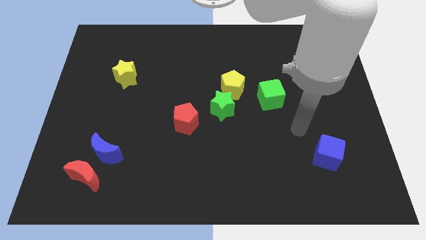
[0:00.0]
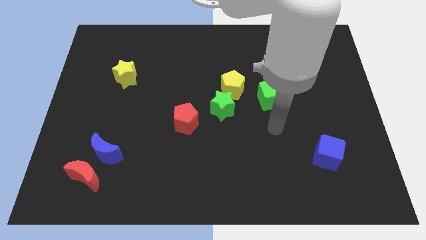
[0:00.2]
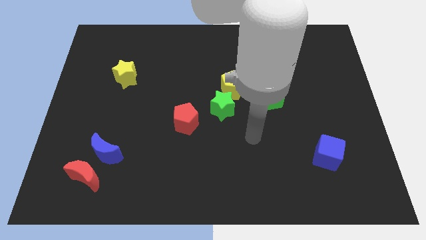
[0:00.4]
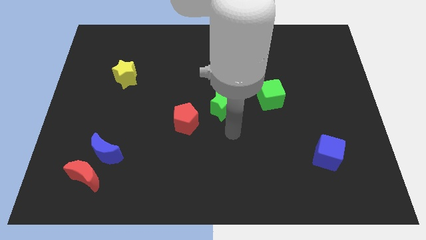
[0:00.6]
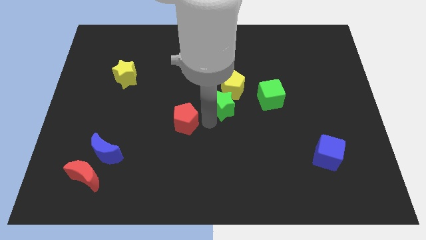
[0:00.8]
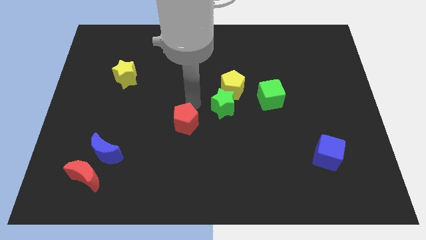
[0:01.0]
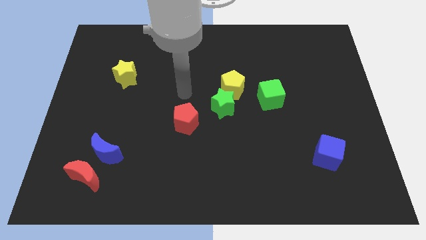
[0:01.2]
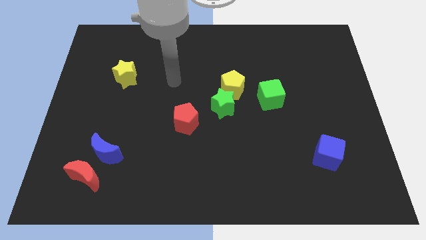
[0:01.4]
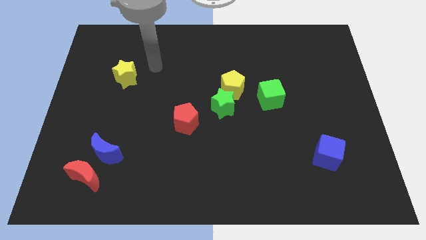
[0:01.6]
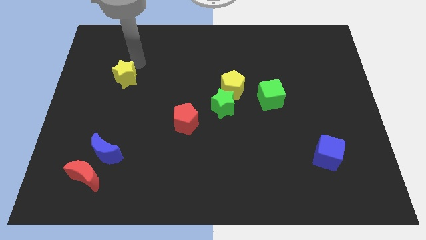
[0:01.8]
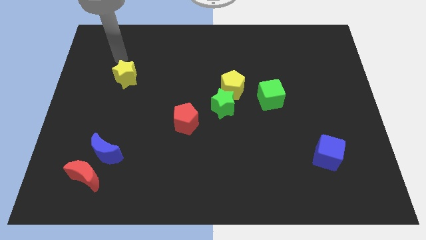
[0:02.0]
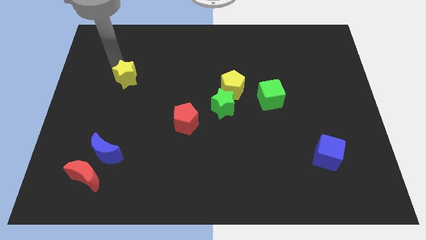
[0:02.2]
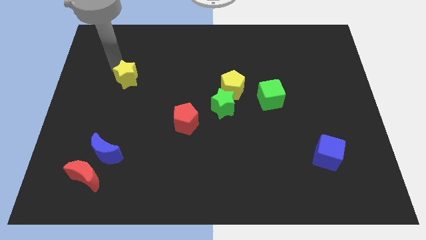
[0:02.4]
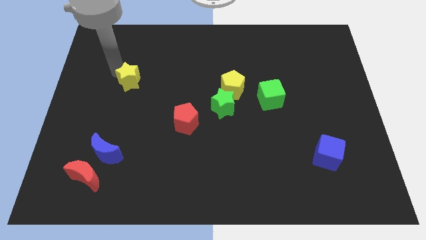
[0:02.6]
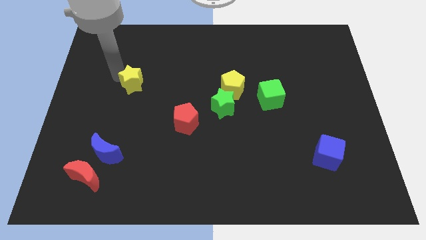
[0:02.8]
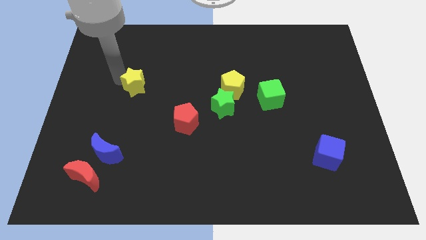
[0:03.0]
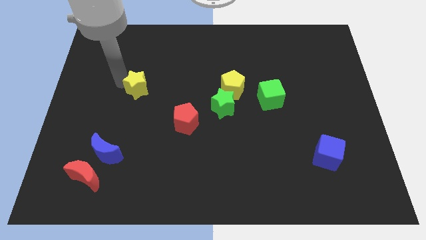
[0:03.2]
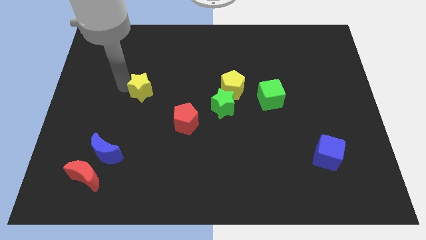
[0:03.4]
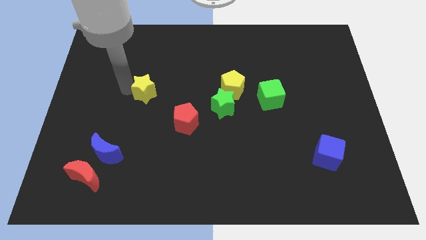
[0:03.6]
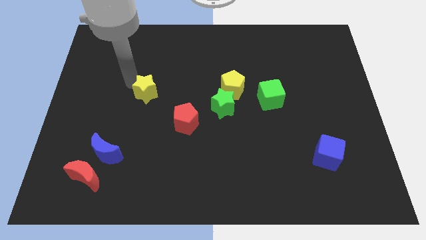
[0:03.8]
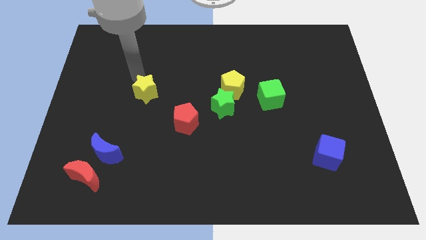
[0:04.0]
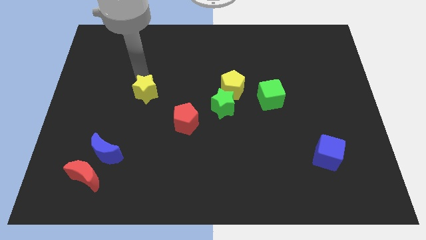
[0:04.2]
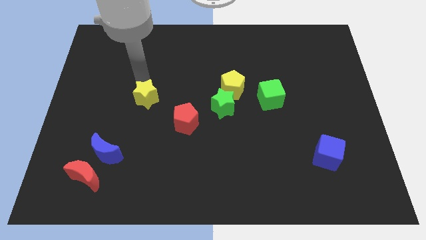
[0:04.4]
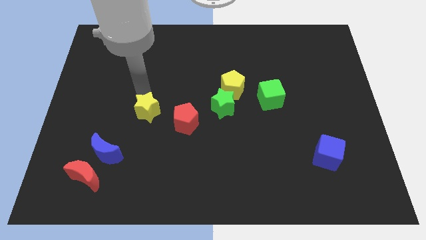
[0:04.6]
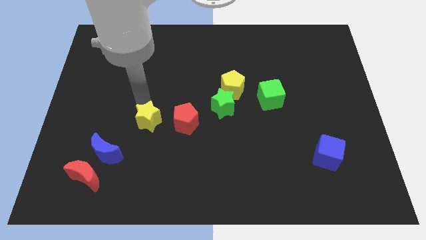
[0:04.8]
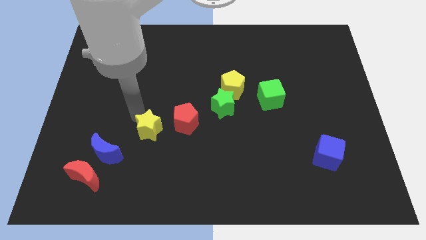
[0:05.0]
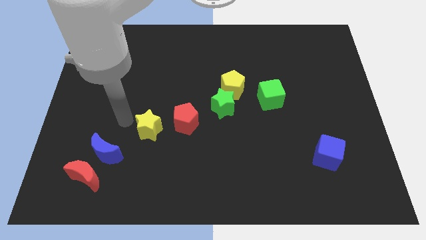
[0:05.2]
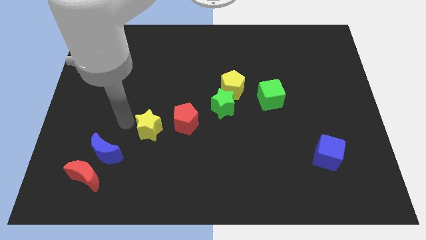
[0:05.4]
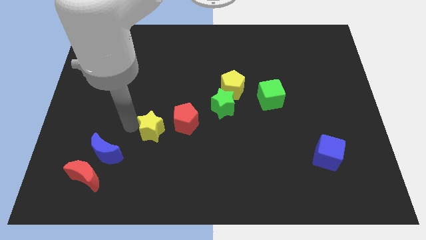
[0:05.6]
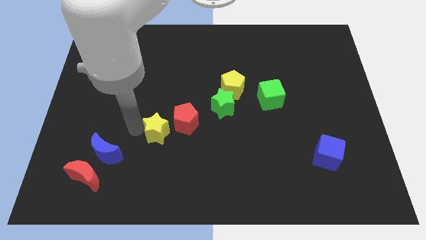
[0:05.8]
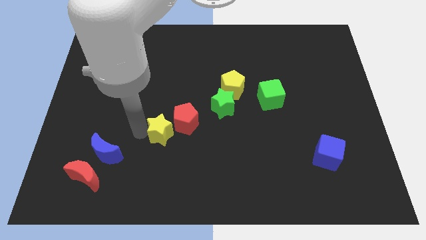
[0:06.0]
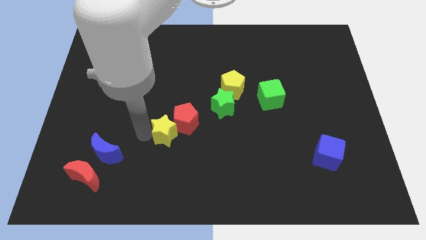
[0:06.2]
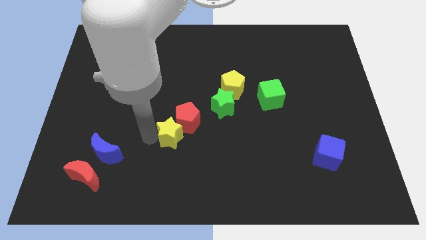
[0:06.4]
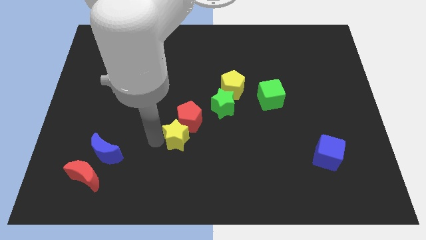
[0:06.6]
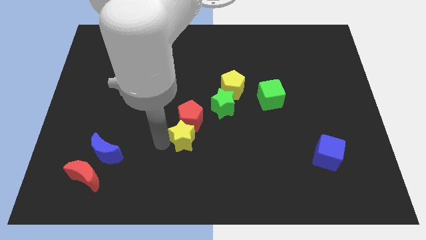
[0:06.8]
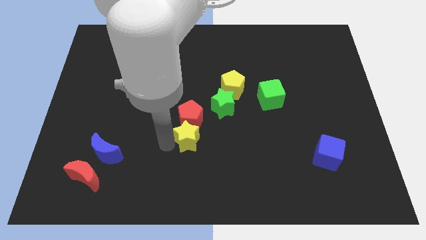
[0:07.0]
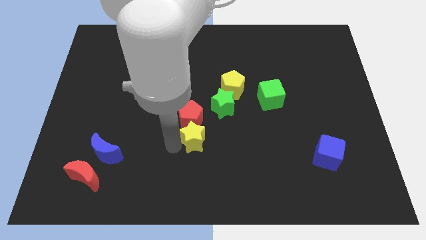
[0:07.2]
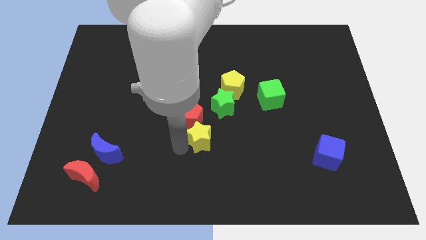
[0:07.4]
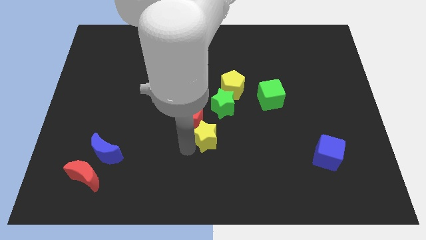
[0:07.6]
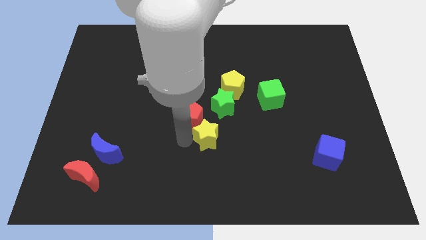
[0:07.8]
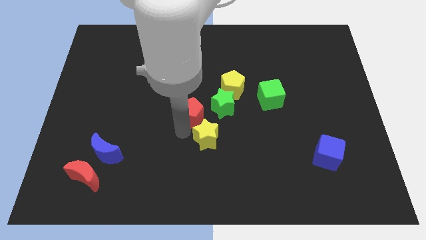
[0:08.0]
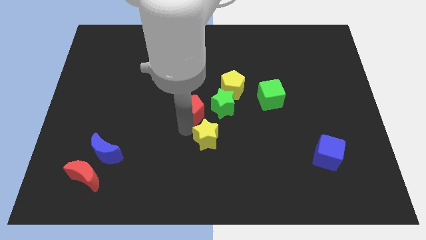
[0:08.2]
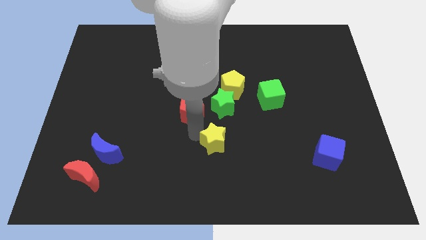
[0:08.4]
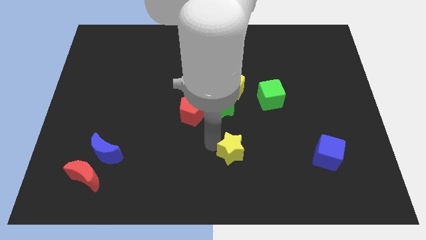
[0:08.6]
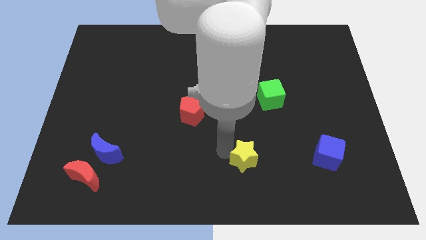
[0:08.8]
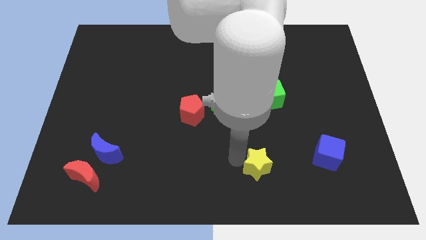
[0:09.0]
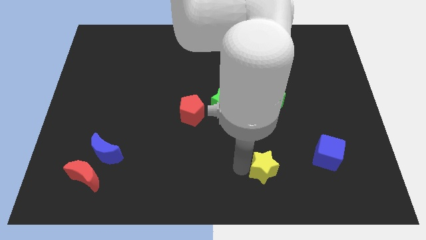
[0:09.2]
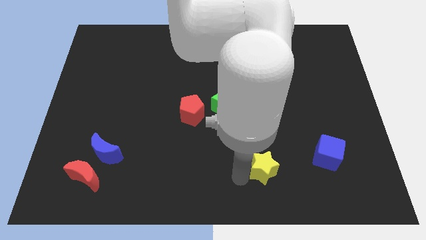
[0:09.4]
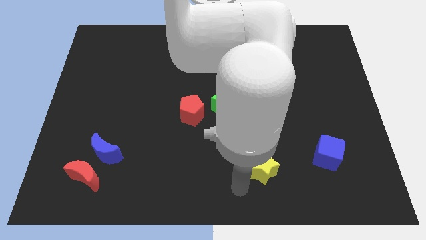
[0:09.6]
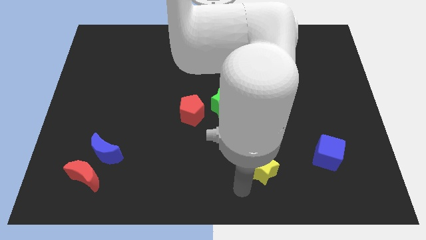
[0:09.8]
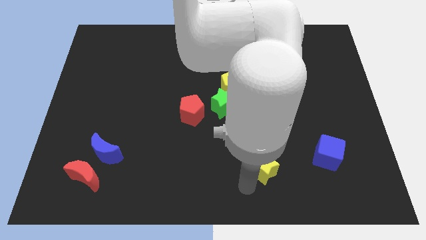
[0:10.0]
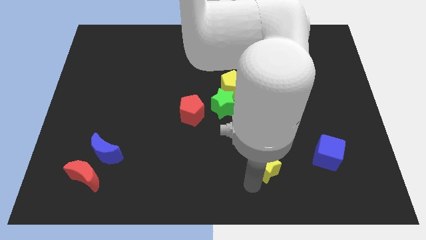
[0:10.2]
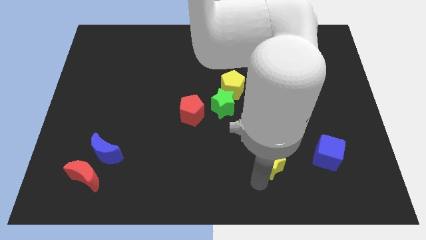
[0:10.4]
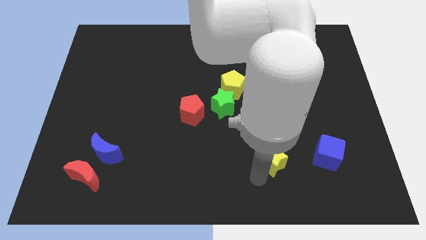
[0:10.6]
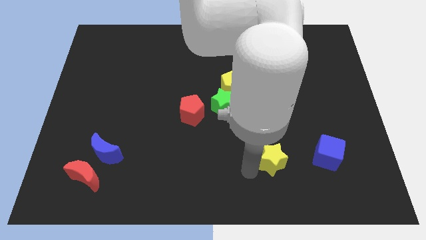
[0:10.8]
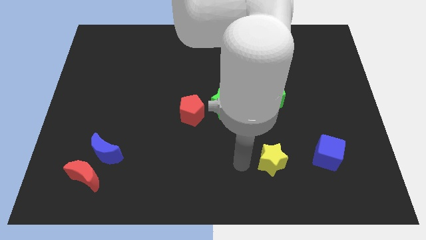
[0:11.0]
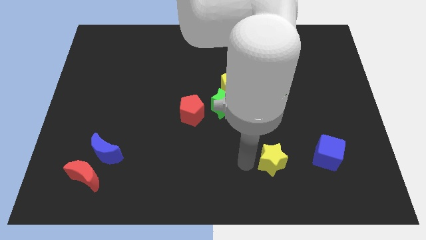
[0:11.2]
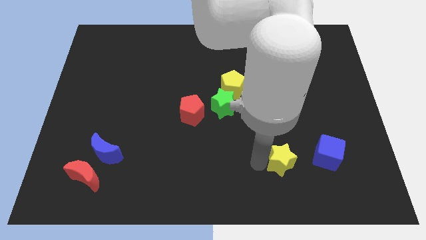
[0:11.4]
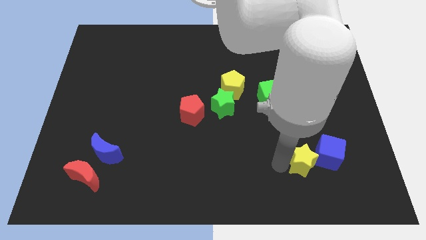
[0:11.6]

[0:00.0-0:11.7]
put the yellow star close to the blue cube

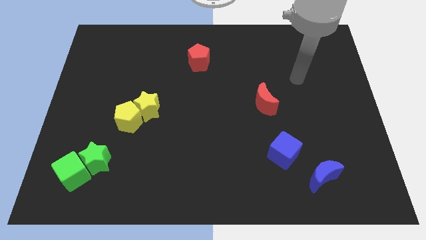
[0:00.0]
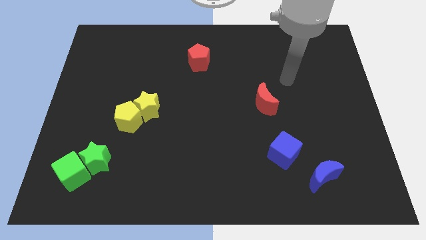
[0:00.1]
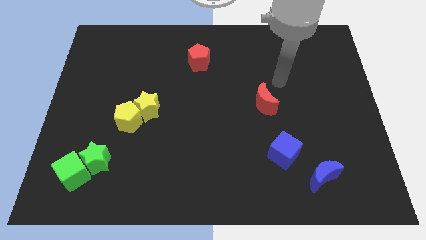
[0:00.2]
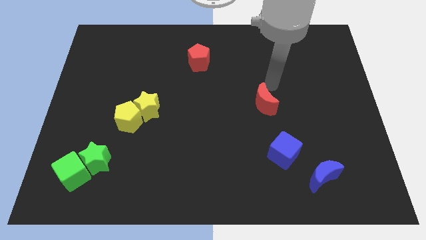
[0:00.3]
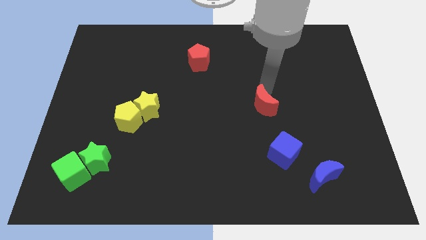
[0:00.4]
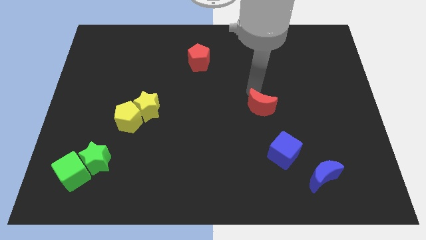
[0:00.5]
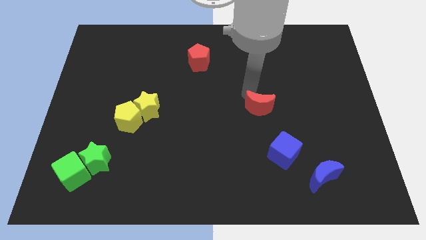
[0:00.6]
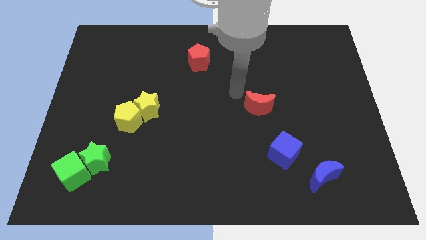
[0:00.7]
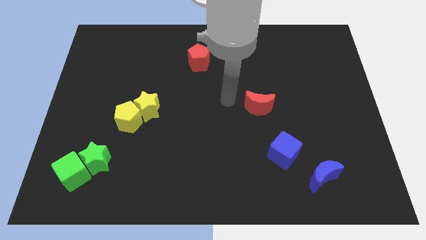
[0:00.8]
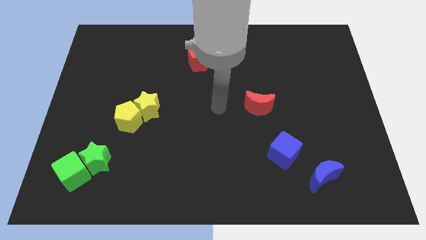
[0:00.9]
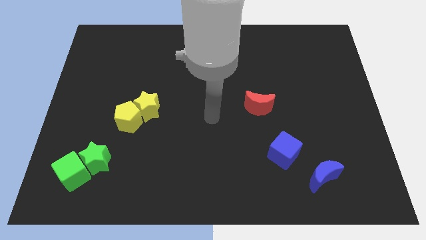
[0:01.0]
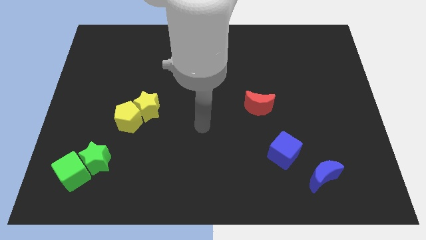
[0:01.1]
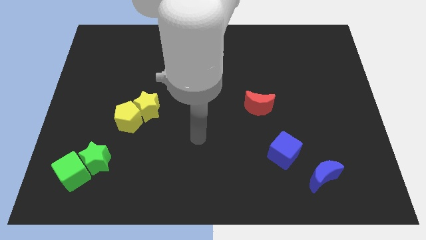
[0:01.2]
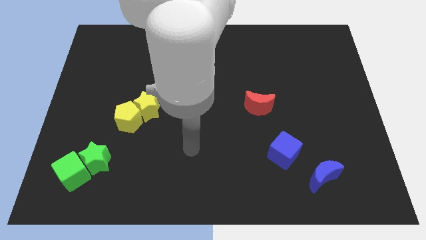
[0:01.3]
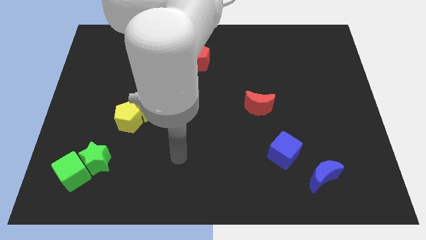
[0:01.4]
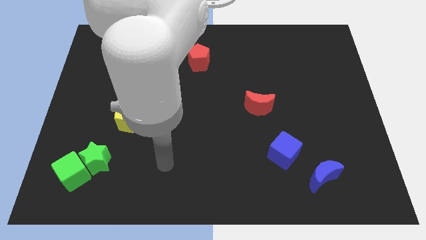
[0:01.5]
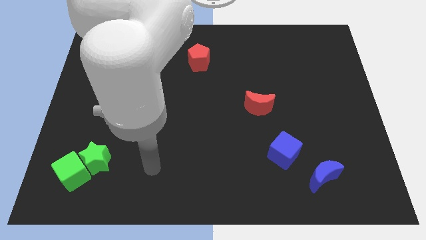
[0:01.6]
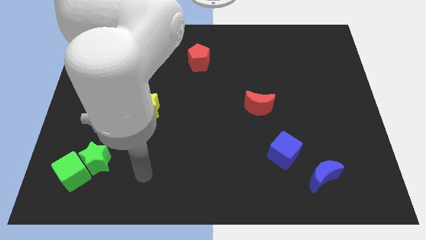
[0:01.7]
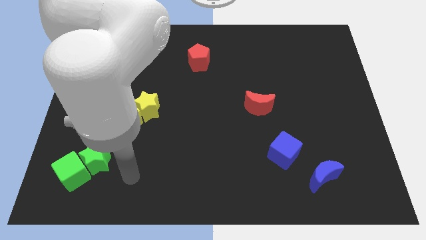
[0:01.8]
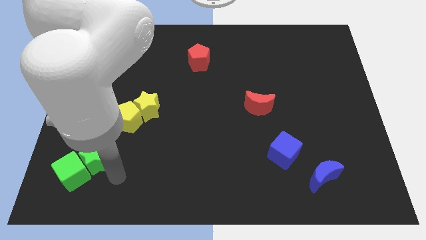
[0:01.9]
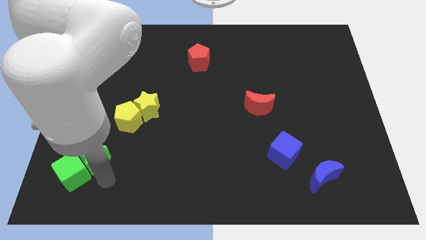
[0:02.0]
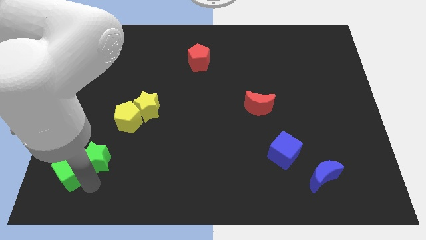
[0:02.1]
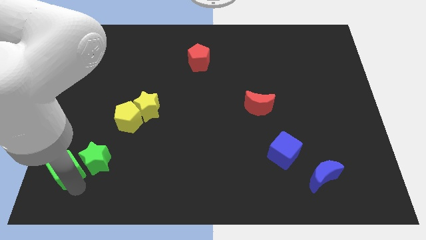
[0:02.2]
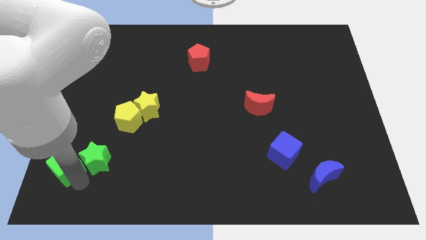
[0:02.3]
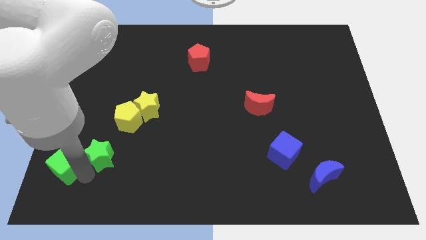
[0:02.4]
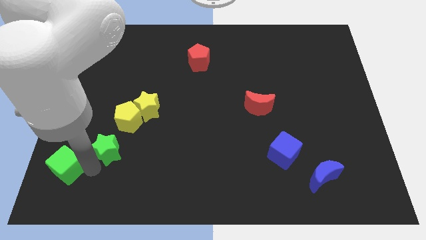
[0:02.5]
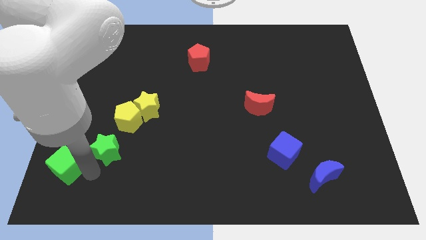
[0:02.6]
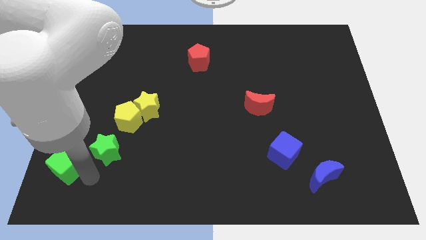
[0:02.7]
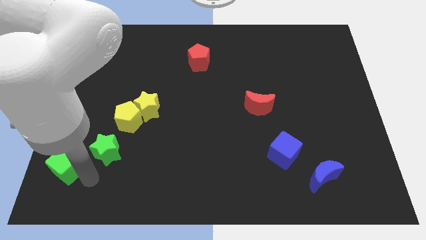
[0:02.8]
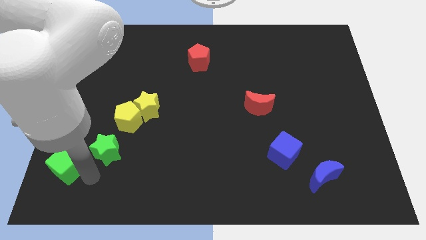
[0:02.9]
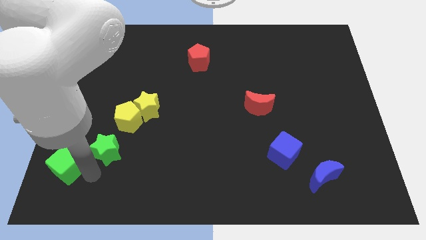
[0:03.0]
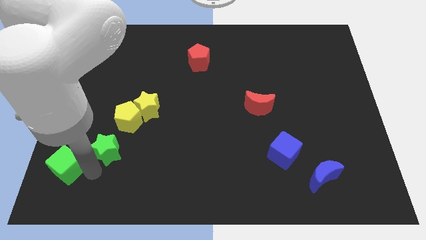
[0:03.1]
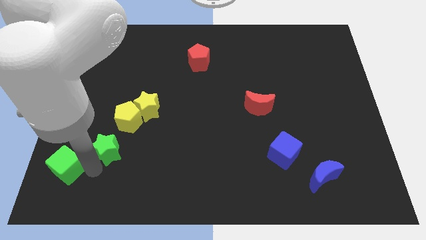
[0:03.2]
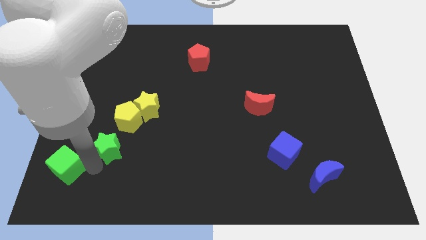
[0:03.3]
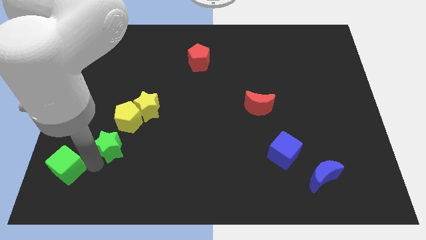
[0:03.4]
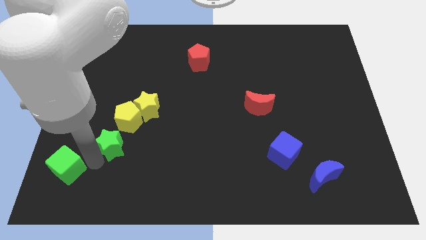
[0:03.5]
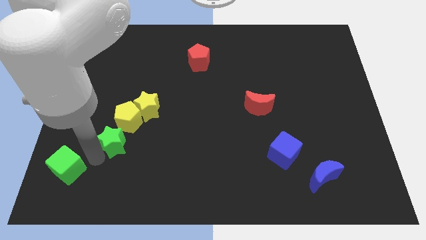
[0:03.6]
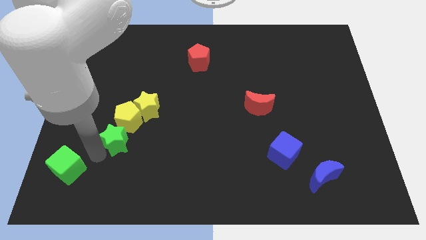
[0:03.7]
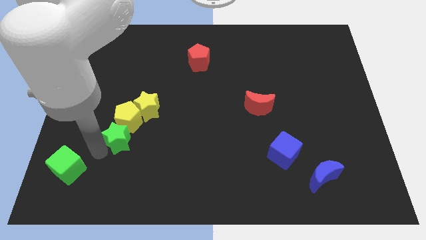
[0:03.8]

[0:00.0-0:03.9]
put the green star next to the yellow pentagon
